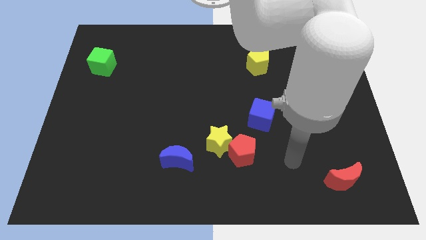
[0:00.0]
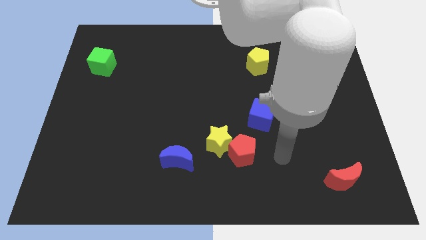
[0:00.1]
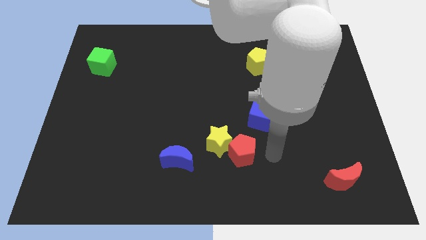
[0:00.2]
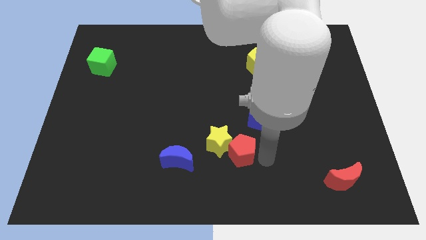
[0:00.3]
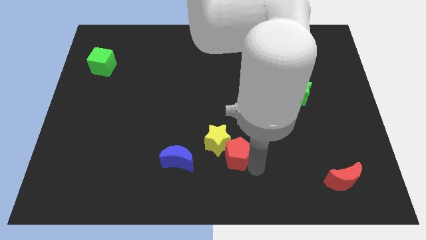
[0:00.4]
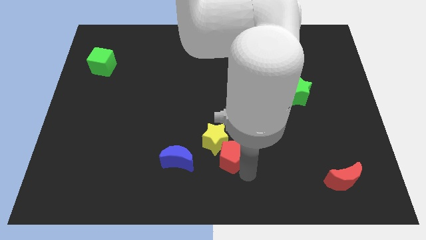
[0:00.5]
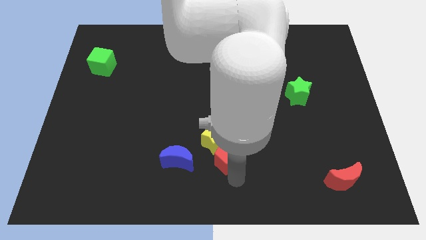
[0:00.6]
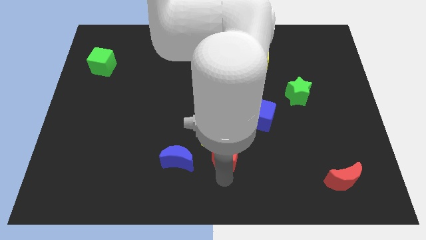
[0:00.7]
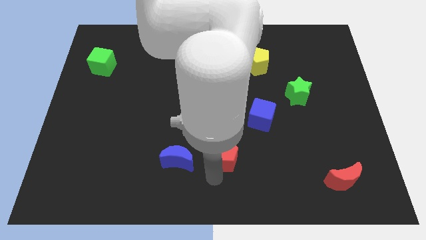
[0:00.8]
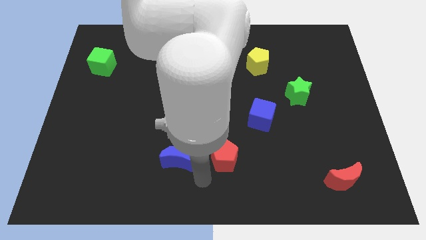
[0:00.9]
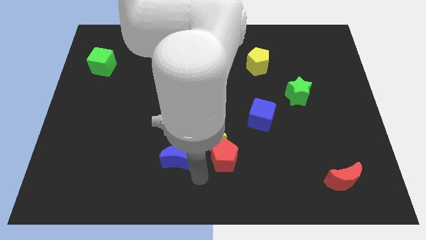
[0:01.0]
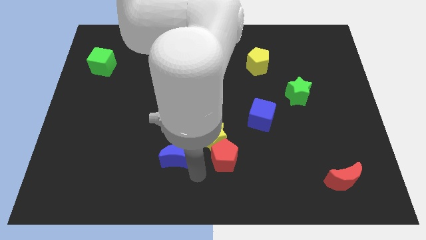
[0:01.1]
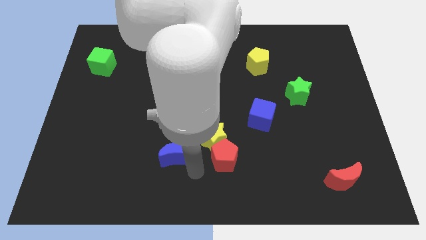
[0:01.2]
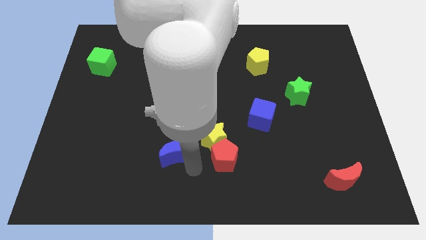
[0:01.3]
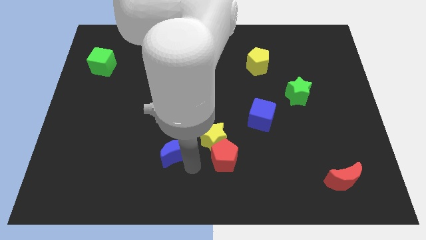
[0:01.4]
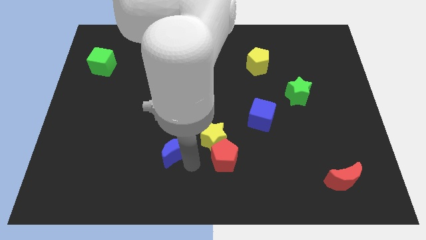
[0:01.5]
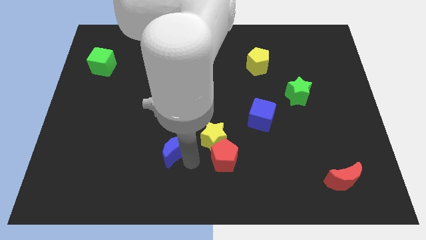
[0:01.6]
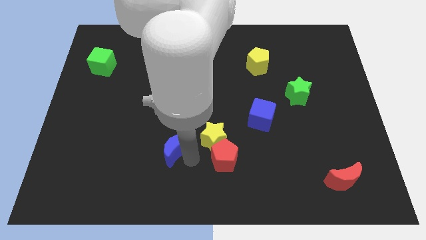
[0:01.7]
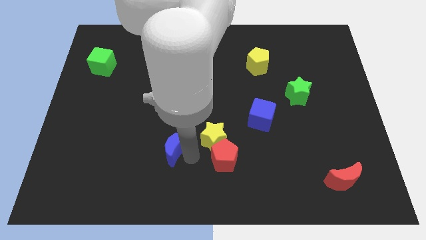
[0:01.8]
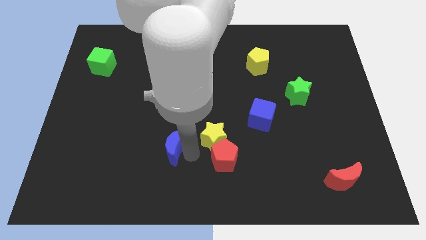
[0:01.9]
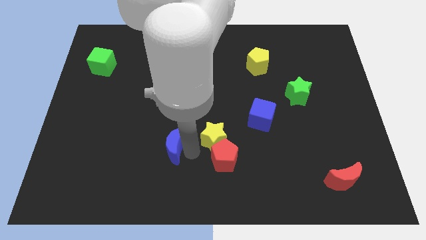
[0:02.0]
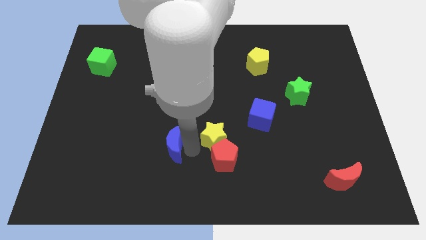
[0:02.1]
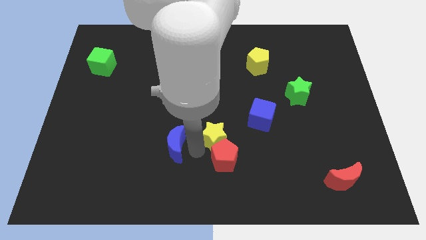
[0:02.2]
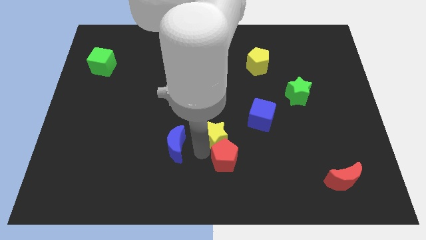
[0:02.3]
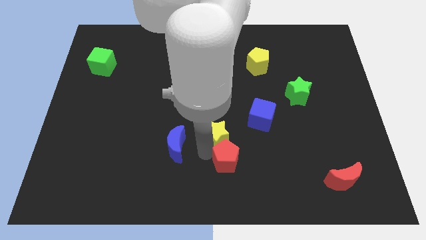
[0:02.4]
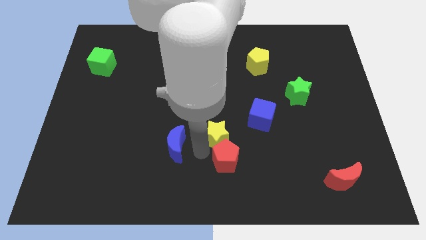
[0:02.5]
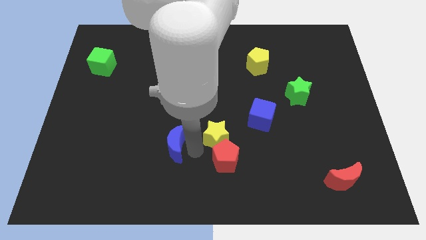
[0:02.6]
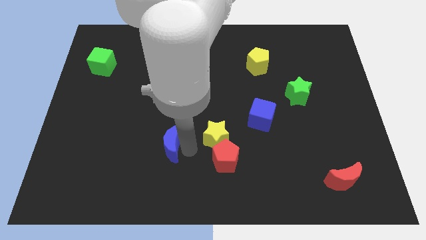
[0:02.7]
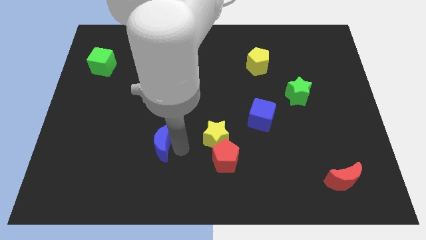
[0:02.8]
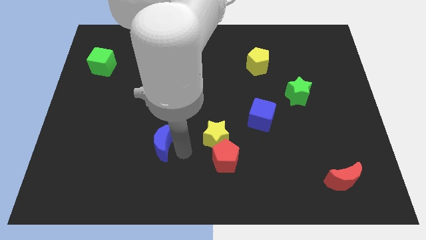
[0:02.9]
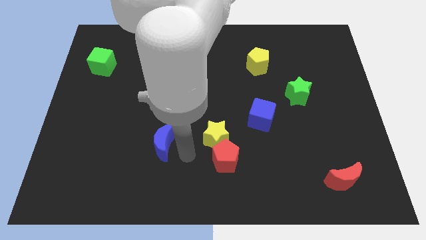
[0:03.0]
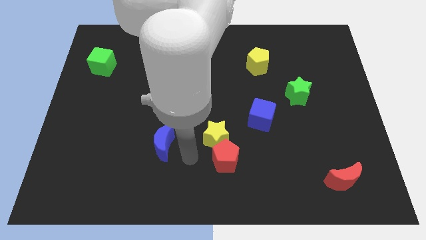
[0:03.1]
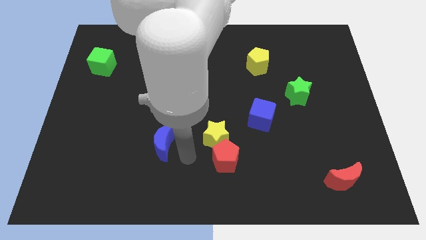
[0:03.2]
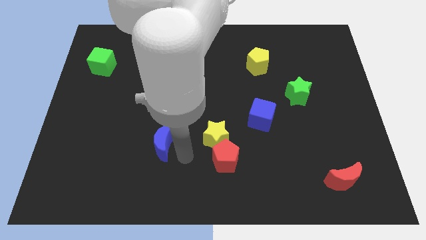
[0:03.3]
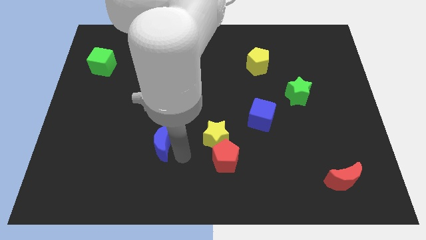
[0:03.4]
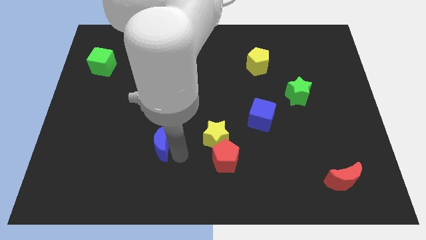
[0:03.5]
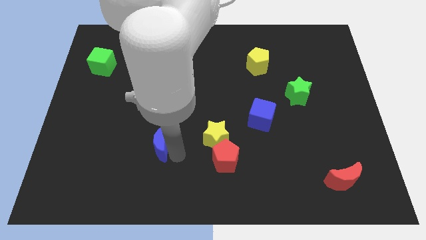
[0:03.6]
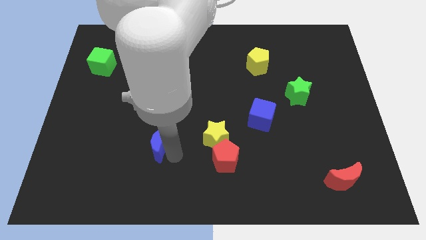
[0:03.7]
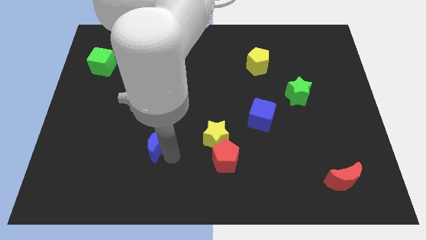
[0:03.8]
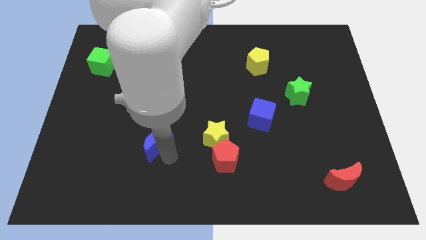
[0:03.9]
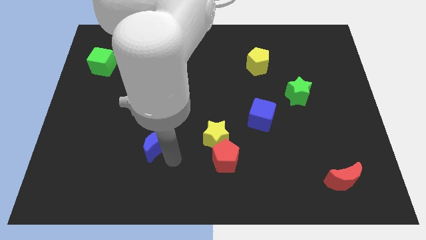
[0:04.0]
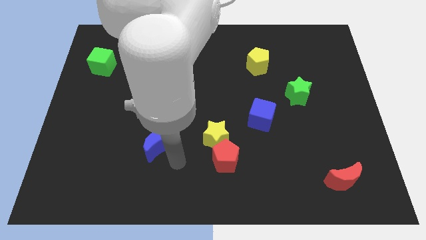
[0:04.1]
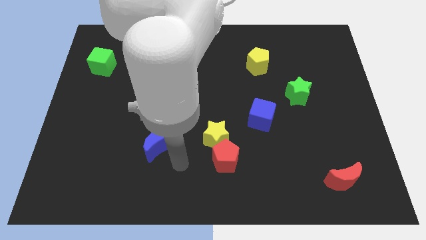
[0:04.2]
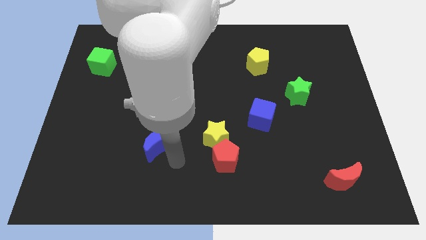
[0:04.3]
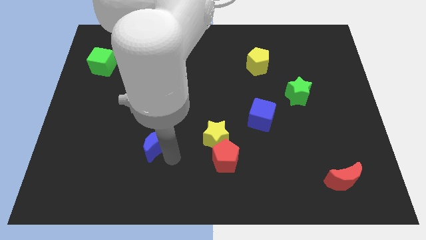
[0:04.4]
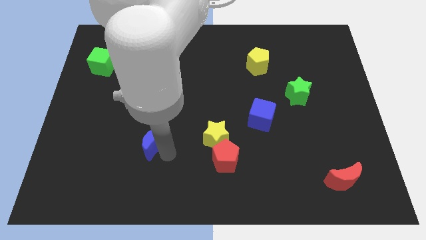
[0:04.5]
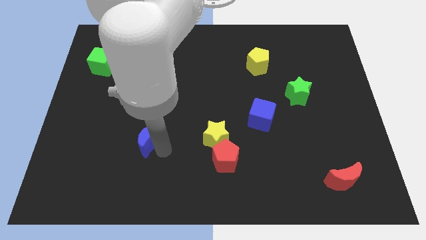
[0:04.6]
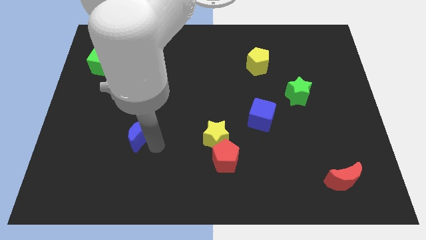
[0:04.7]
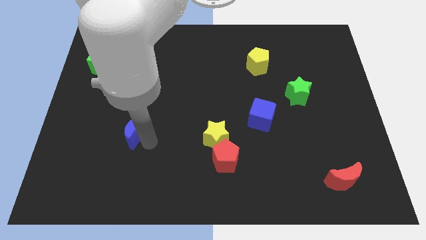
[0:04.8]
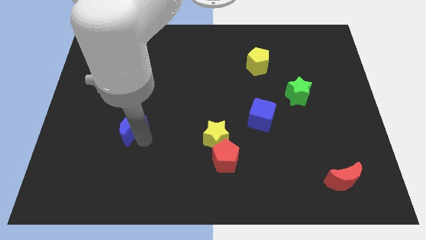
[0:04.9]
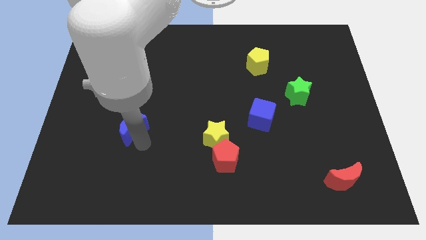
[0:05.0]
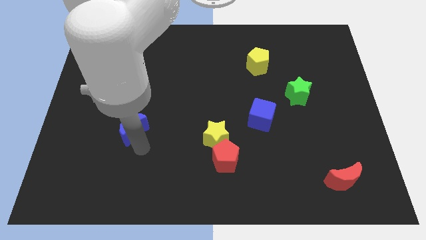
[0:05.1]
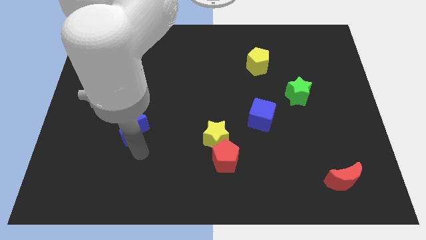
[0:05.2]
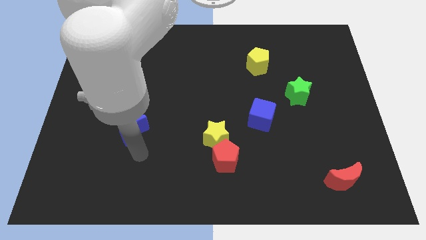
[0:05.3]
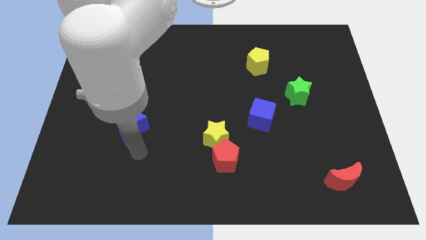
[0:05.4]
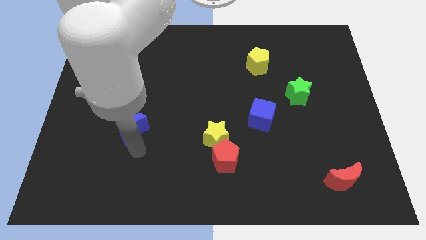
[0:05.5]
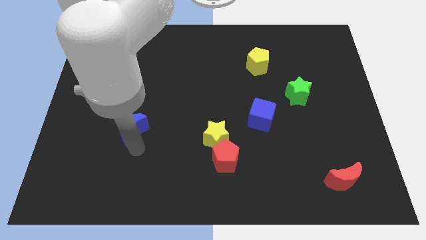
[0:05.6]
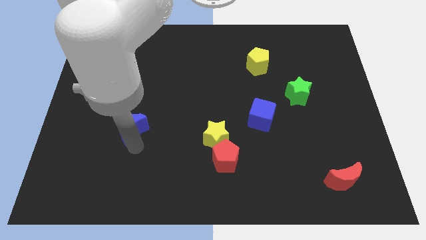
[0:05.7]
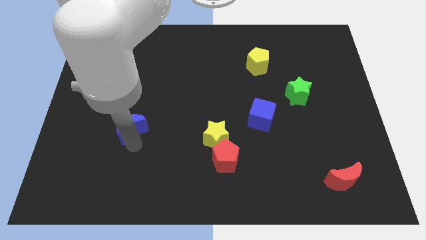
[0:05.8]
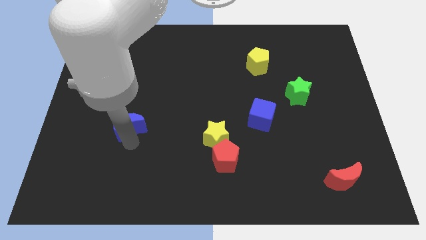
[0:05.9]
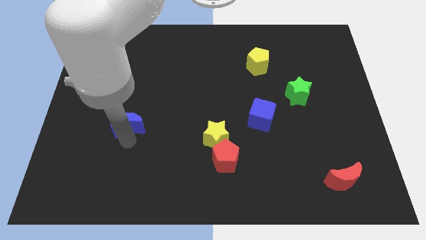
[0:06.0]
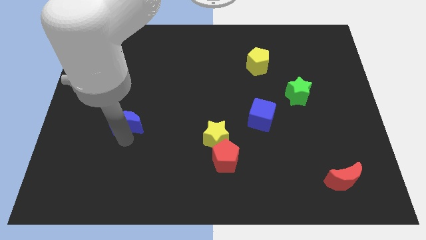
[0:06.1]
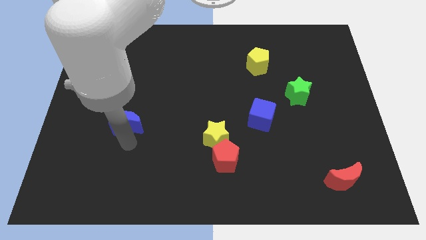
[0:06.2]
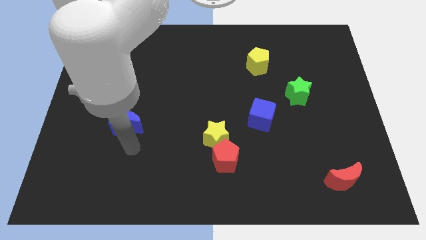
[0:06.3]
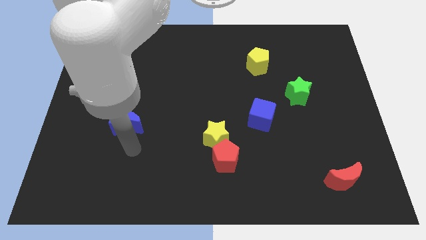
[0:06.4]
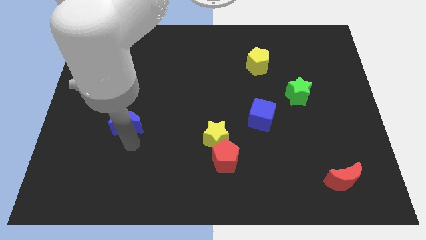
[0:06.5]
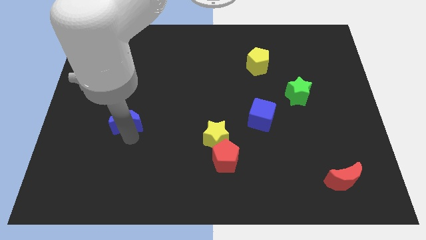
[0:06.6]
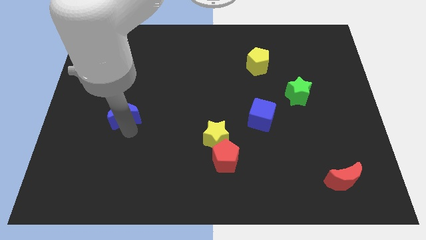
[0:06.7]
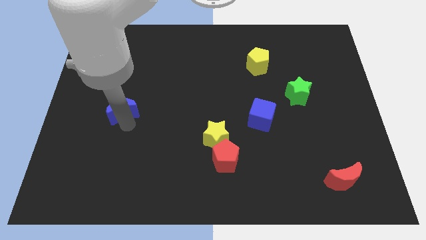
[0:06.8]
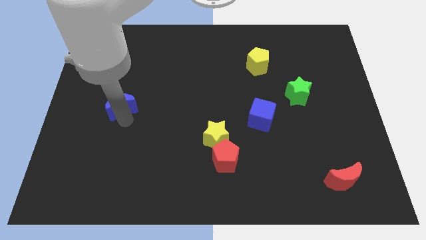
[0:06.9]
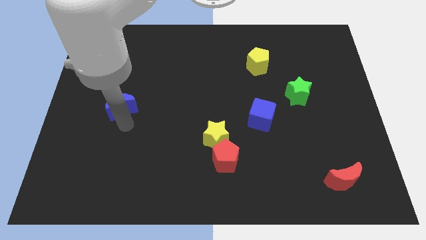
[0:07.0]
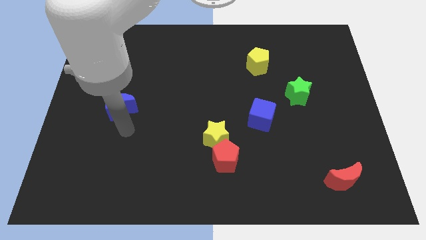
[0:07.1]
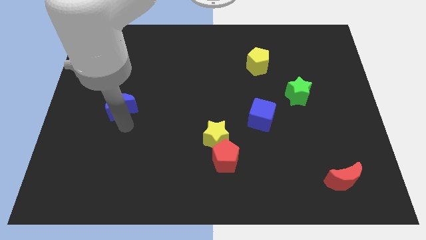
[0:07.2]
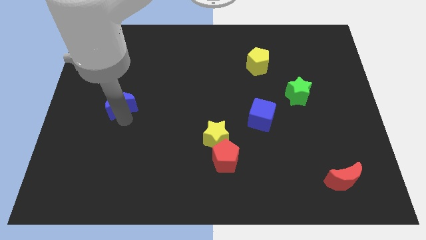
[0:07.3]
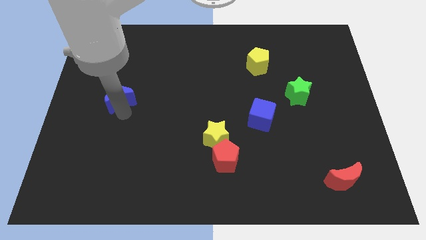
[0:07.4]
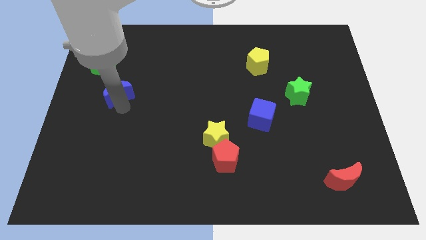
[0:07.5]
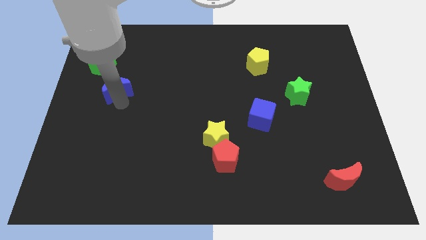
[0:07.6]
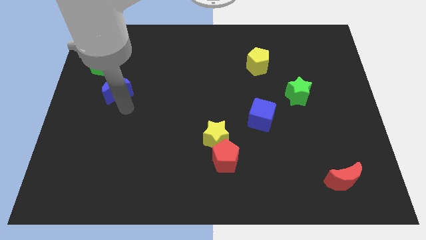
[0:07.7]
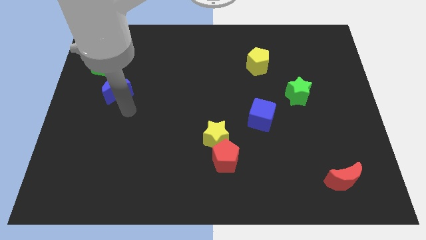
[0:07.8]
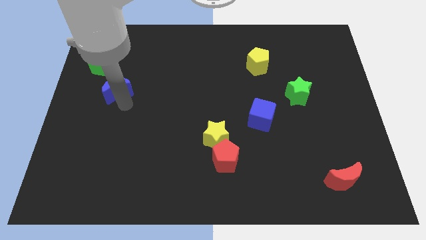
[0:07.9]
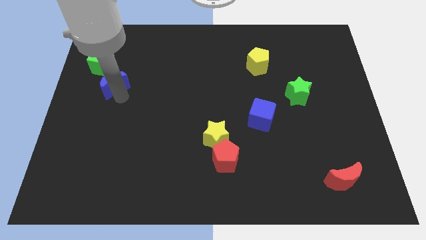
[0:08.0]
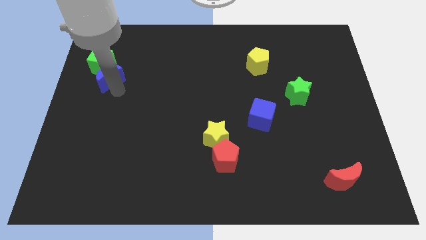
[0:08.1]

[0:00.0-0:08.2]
move the blue moon next to the green cube
